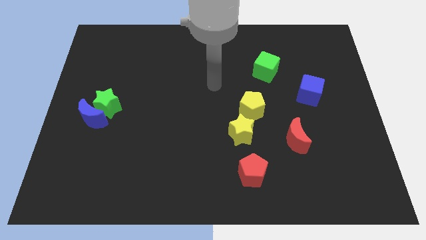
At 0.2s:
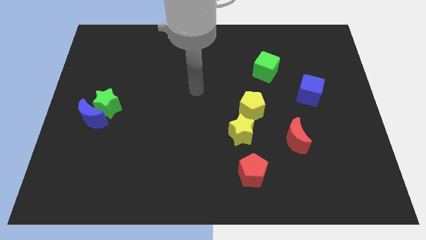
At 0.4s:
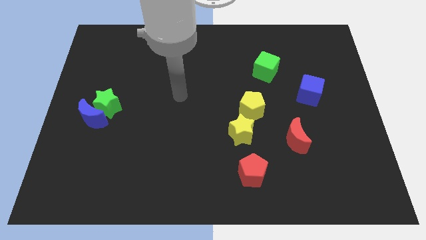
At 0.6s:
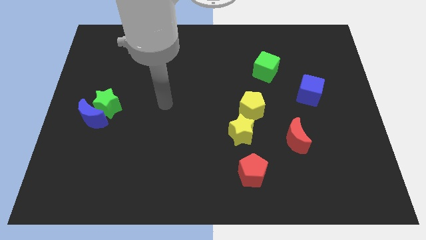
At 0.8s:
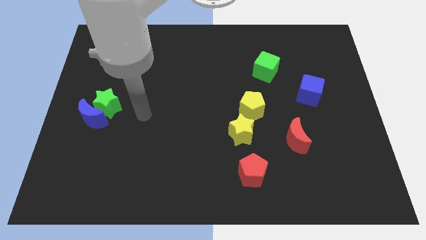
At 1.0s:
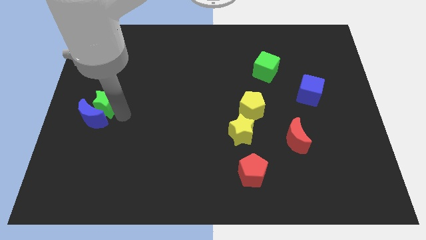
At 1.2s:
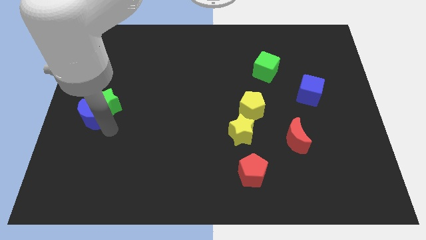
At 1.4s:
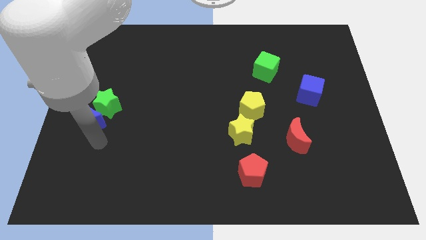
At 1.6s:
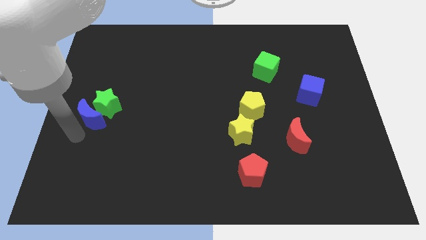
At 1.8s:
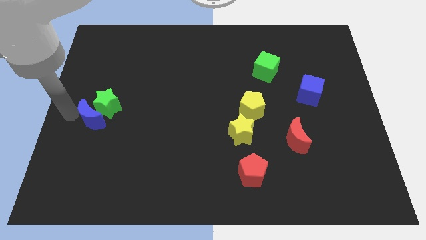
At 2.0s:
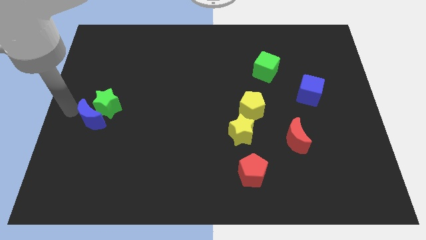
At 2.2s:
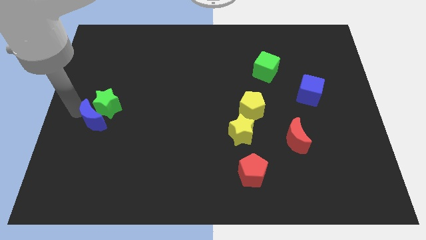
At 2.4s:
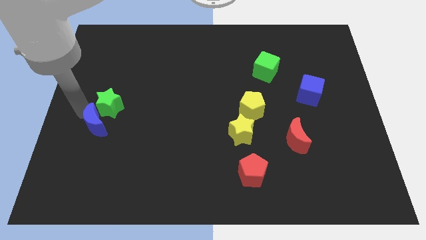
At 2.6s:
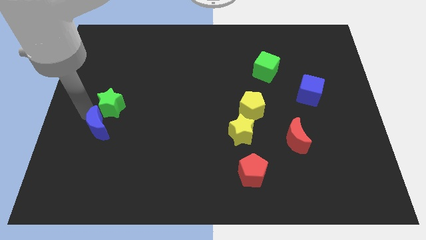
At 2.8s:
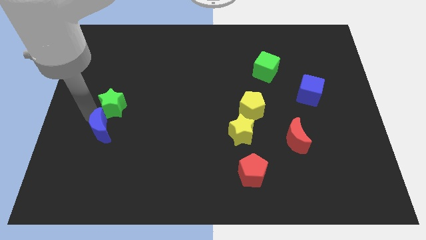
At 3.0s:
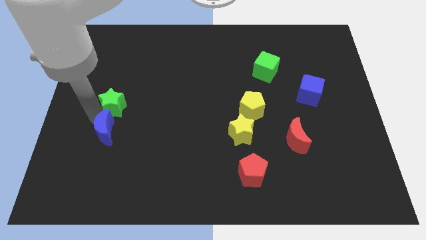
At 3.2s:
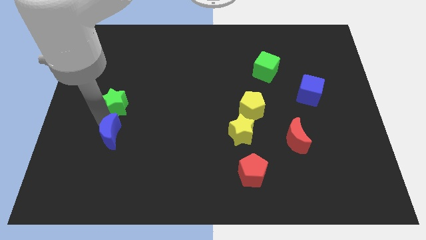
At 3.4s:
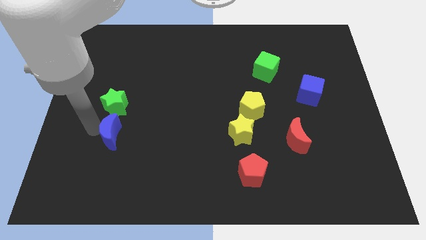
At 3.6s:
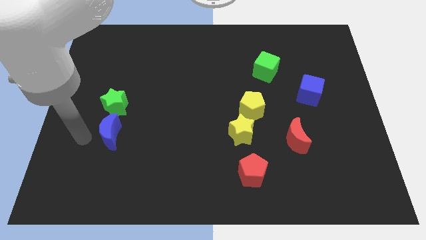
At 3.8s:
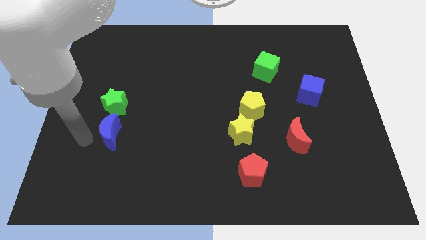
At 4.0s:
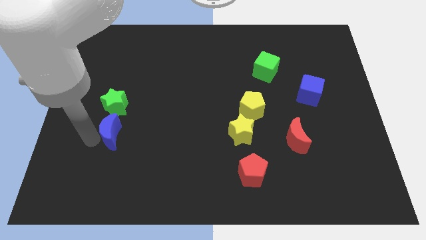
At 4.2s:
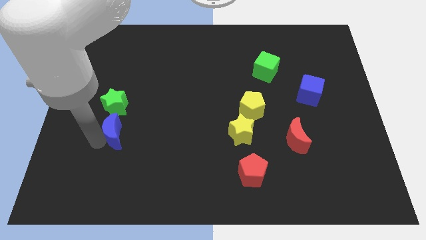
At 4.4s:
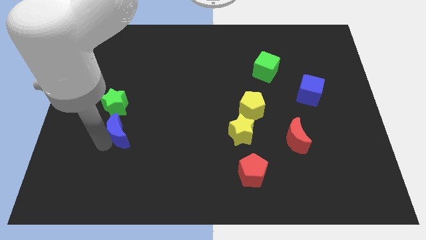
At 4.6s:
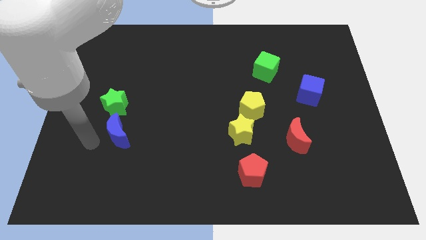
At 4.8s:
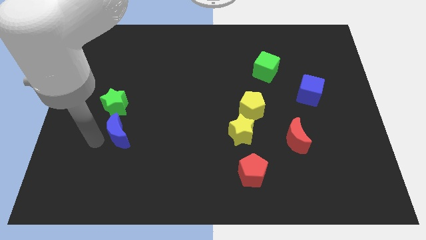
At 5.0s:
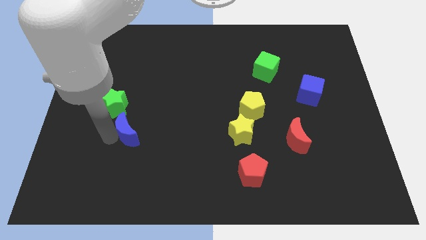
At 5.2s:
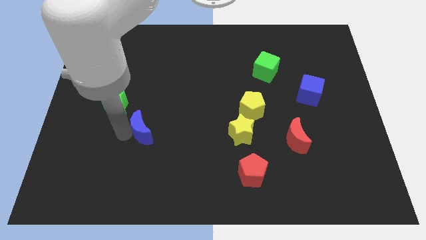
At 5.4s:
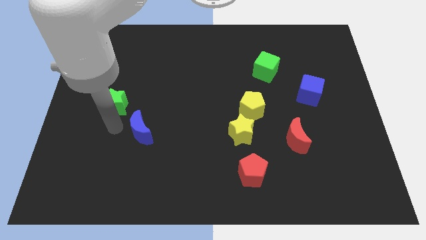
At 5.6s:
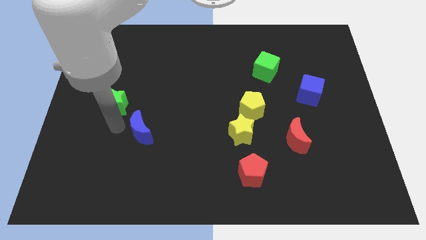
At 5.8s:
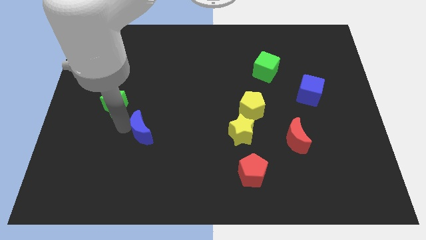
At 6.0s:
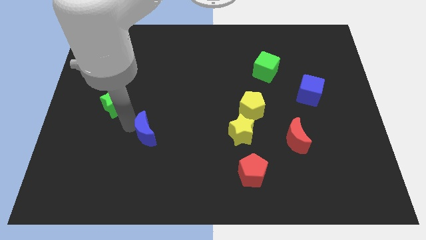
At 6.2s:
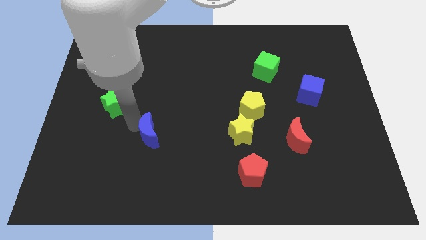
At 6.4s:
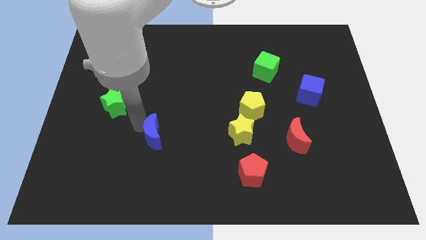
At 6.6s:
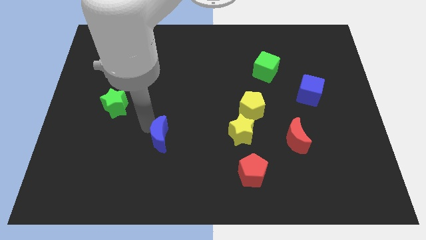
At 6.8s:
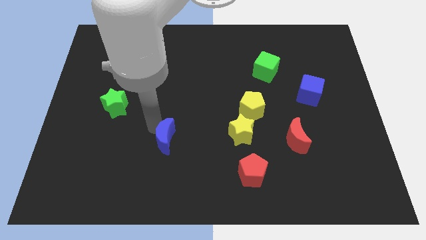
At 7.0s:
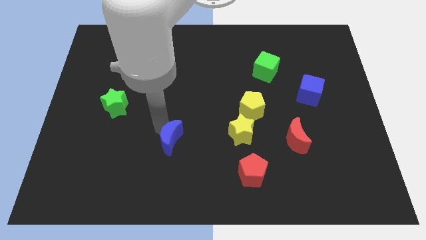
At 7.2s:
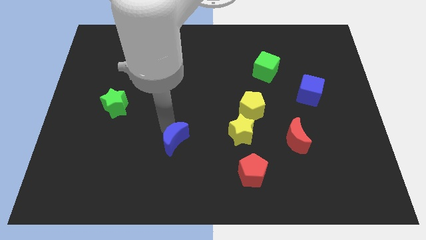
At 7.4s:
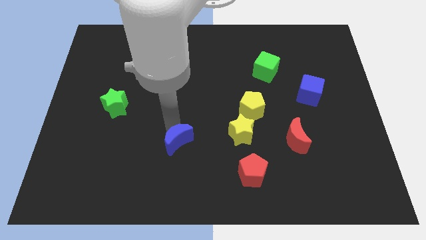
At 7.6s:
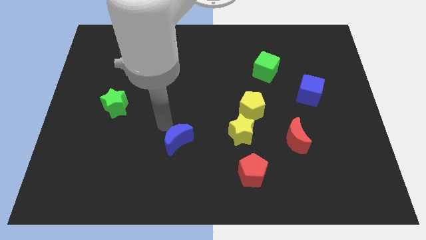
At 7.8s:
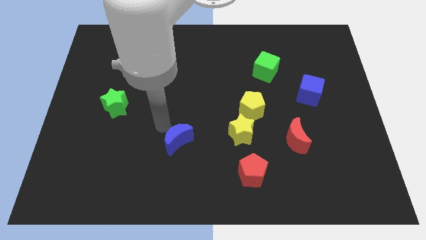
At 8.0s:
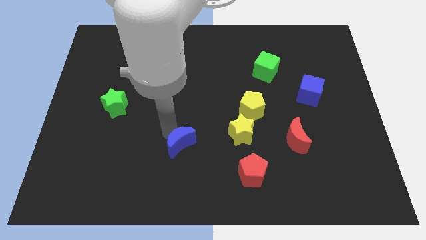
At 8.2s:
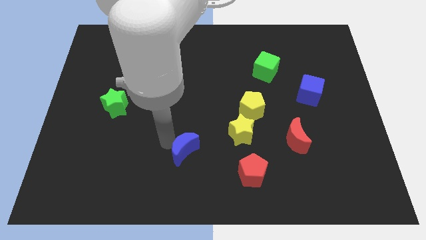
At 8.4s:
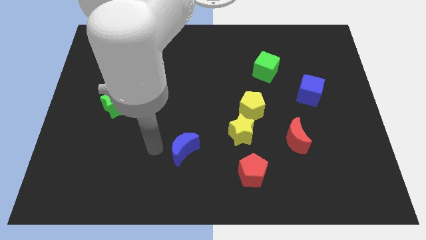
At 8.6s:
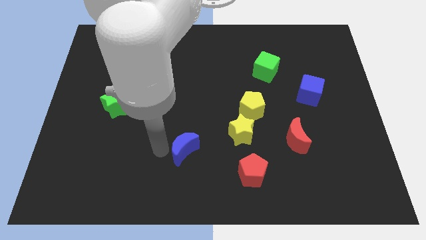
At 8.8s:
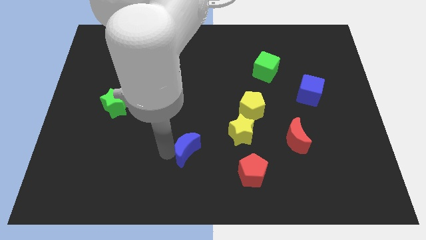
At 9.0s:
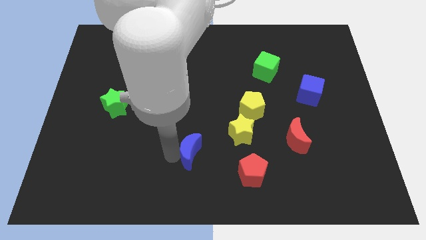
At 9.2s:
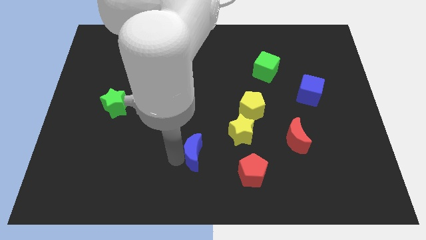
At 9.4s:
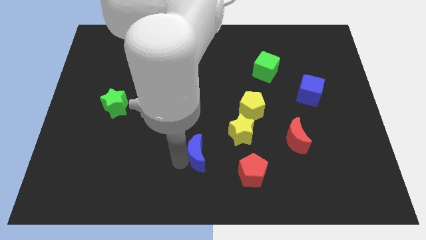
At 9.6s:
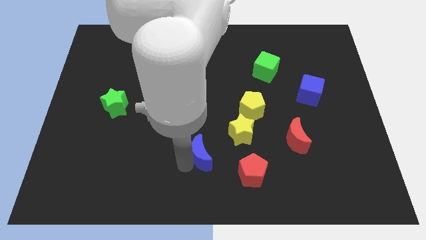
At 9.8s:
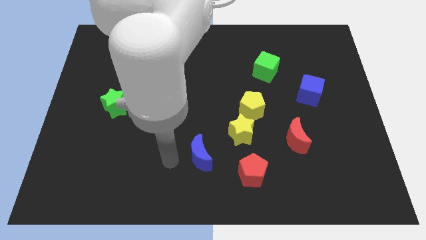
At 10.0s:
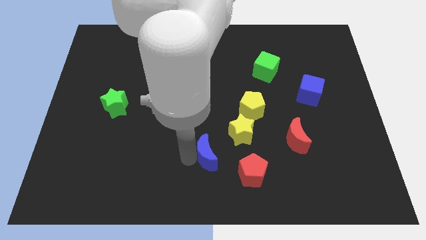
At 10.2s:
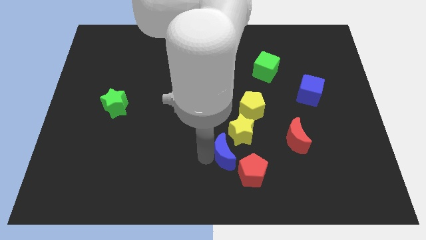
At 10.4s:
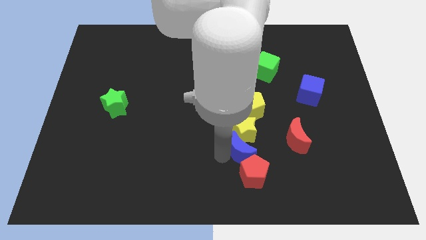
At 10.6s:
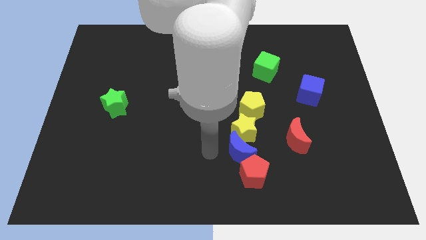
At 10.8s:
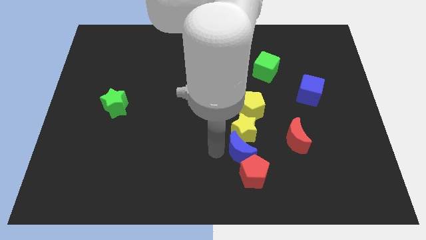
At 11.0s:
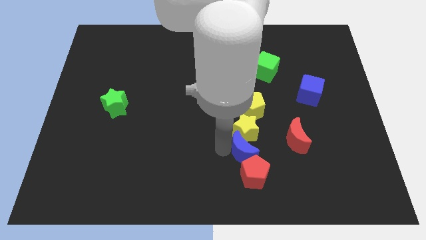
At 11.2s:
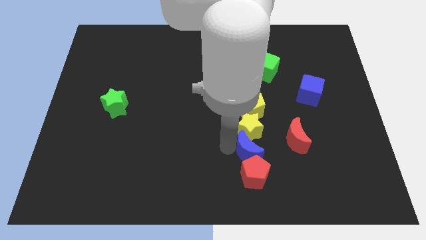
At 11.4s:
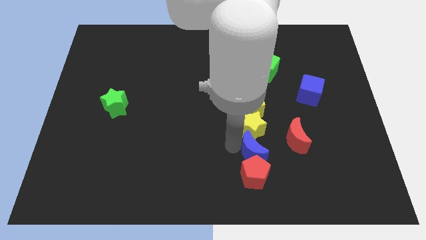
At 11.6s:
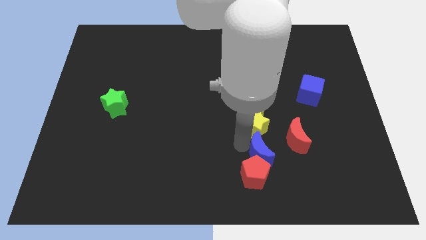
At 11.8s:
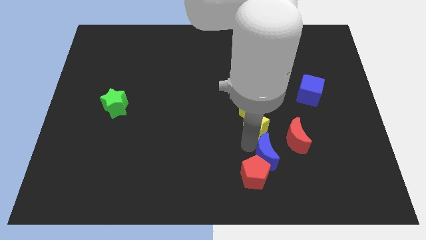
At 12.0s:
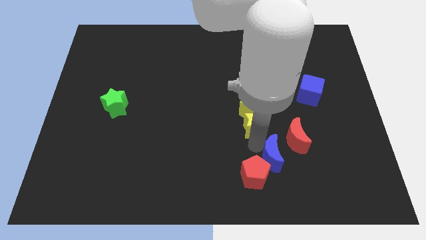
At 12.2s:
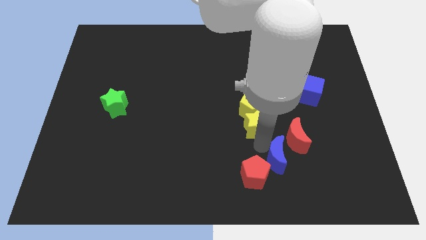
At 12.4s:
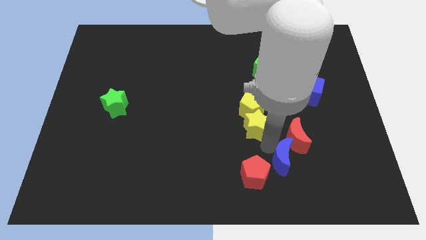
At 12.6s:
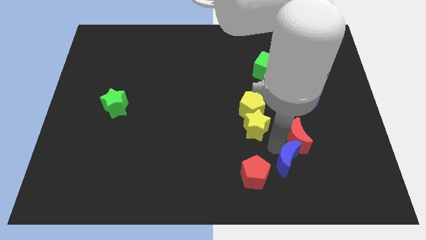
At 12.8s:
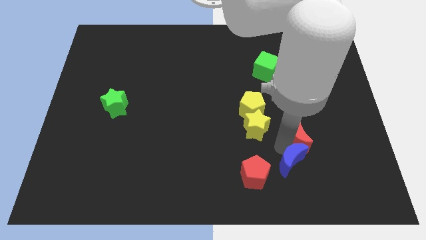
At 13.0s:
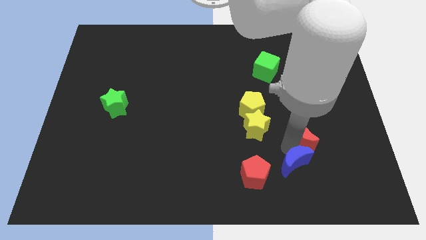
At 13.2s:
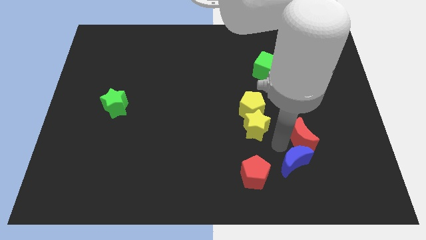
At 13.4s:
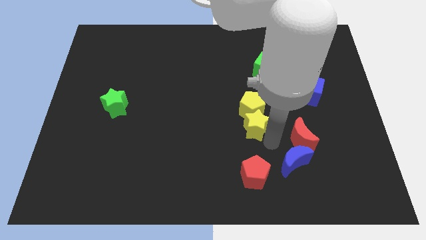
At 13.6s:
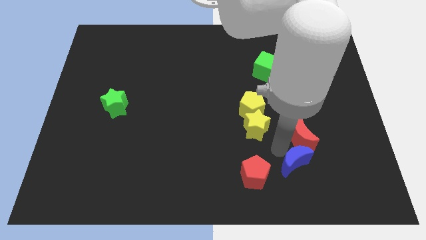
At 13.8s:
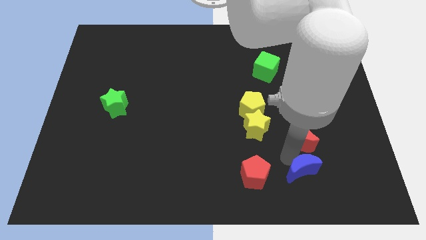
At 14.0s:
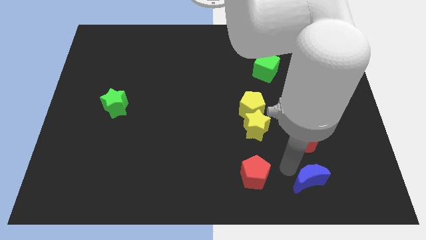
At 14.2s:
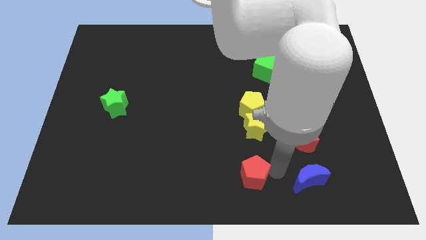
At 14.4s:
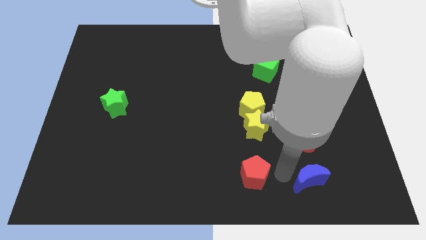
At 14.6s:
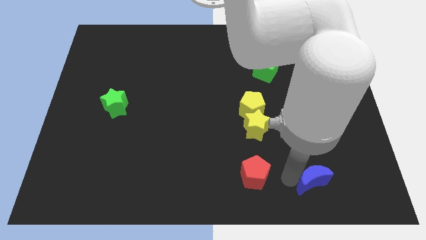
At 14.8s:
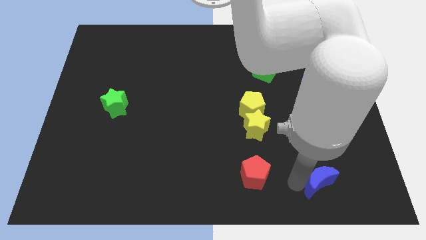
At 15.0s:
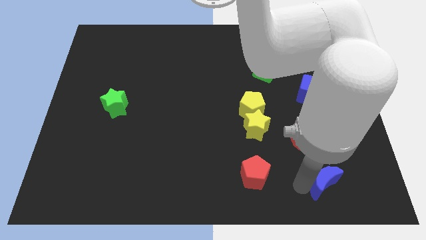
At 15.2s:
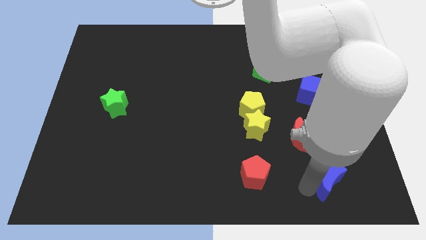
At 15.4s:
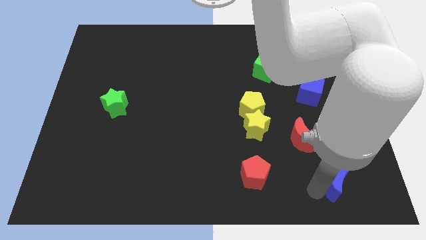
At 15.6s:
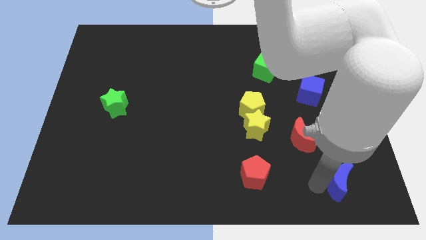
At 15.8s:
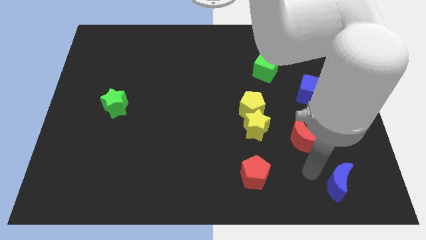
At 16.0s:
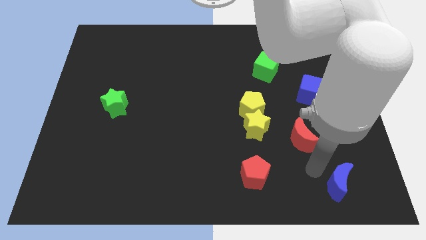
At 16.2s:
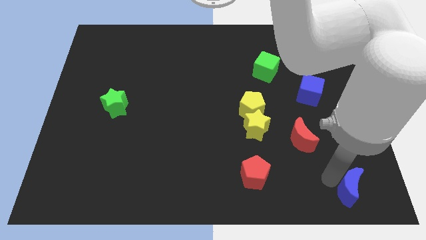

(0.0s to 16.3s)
push the blue moon to the lower right corner
